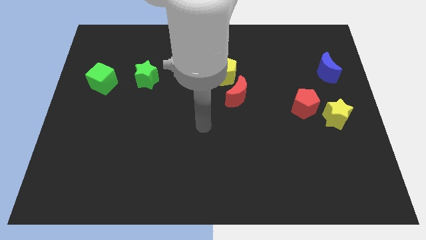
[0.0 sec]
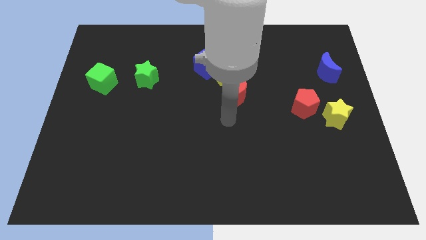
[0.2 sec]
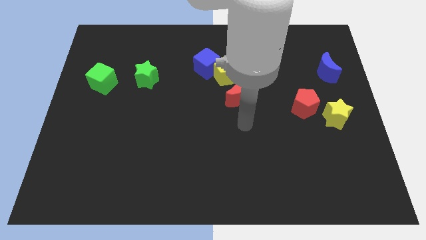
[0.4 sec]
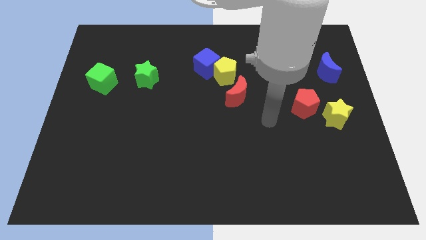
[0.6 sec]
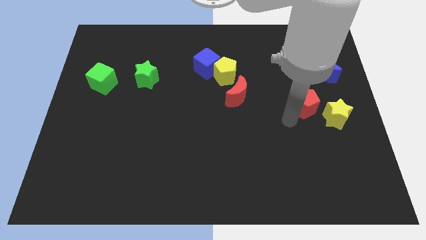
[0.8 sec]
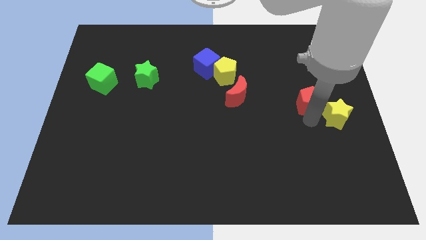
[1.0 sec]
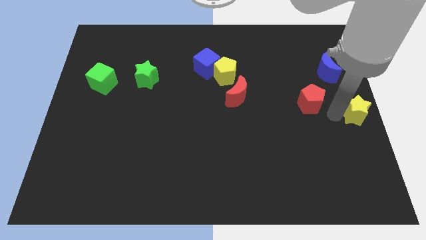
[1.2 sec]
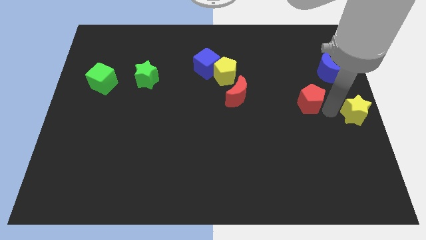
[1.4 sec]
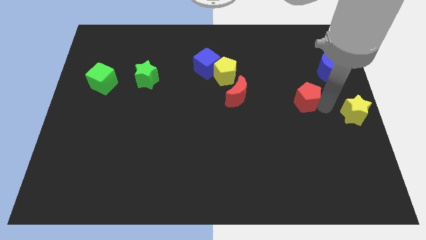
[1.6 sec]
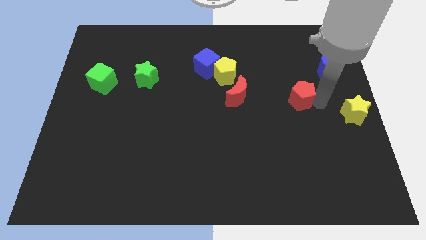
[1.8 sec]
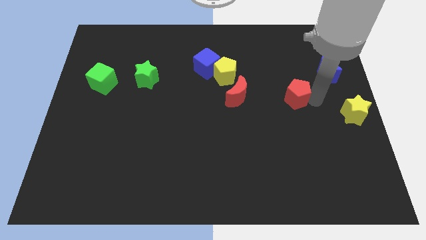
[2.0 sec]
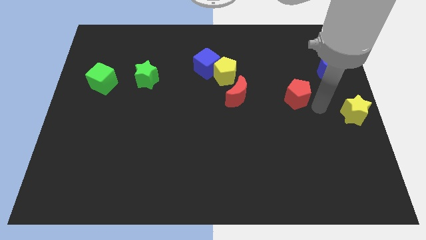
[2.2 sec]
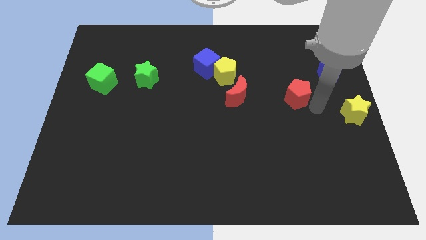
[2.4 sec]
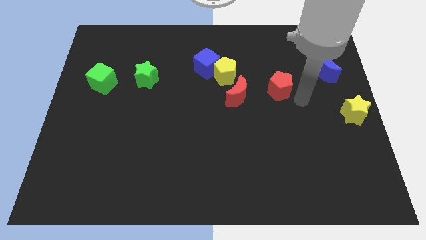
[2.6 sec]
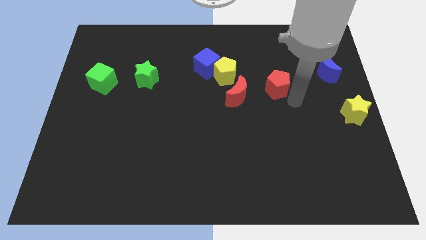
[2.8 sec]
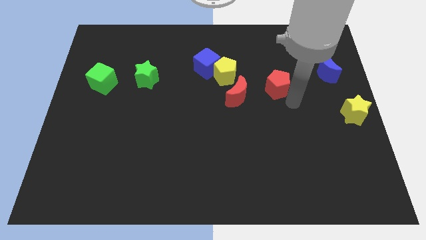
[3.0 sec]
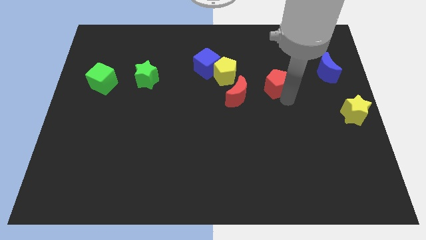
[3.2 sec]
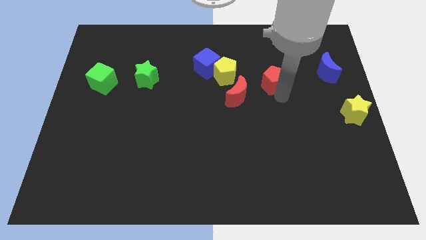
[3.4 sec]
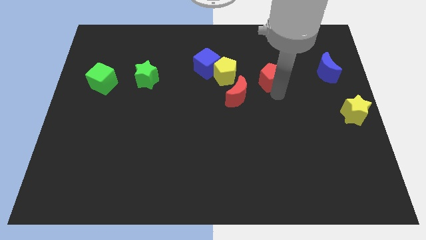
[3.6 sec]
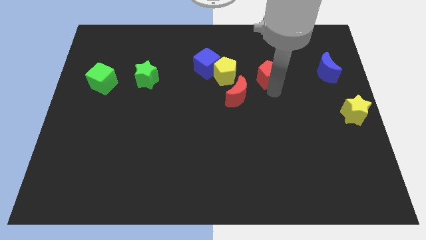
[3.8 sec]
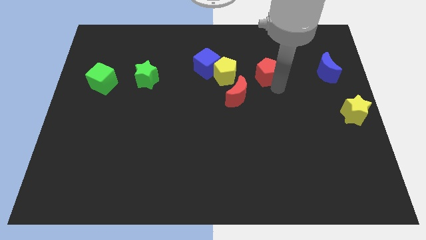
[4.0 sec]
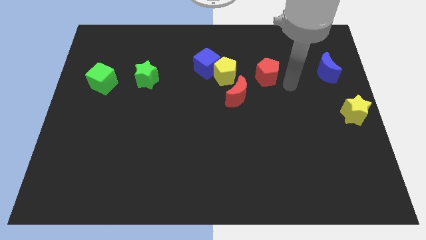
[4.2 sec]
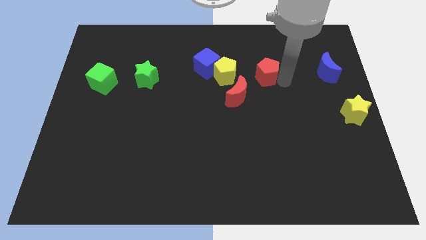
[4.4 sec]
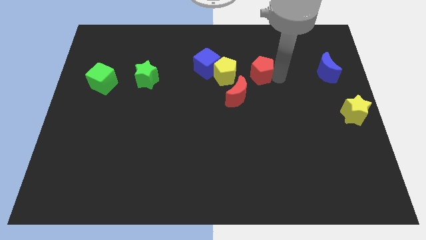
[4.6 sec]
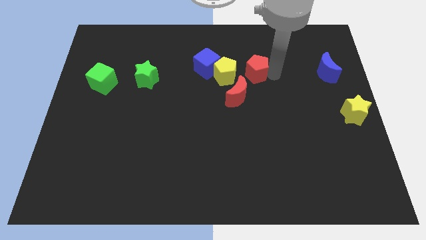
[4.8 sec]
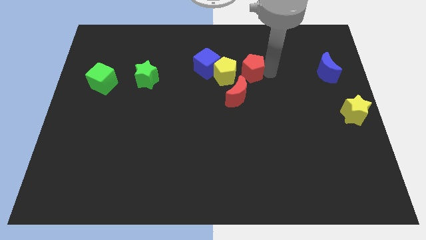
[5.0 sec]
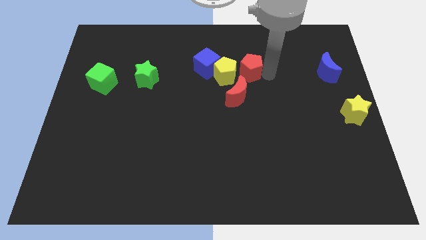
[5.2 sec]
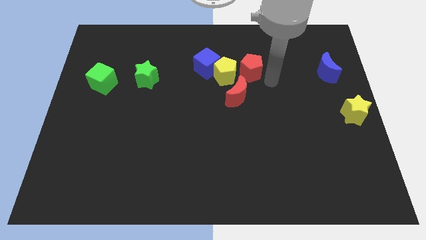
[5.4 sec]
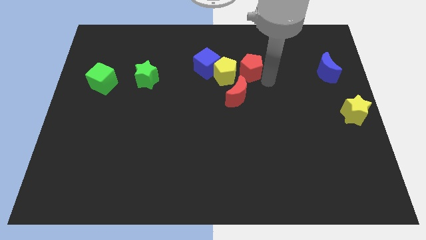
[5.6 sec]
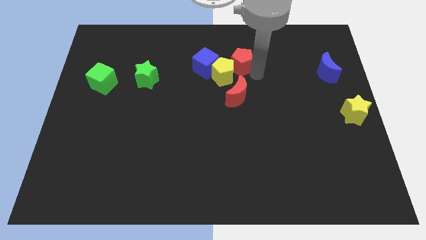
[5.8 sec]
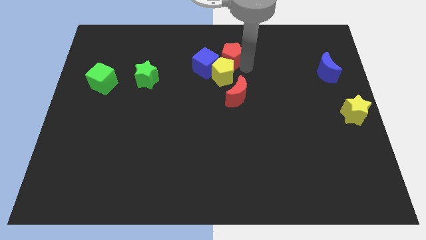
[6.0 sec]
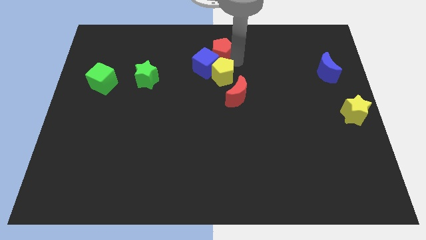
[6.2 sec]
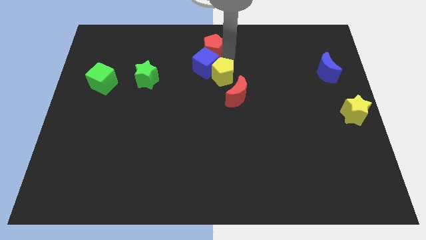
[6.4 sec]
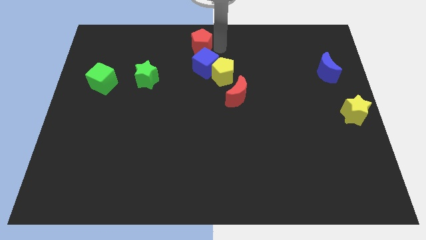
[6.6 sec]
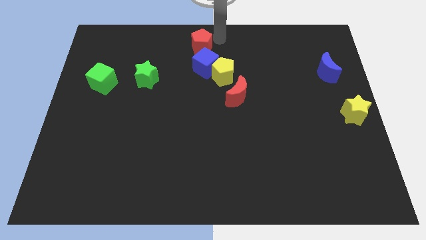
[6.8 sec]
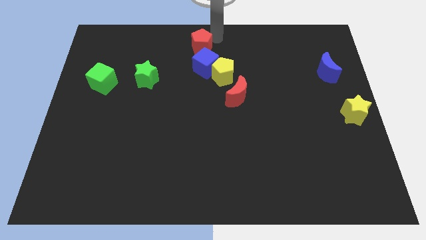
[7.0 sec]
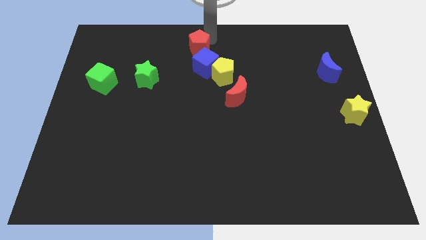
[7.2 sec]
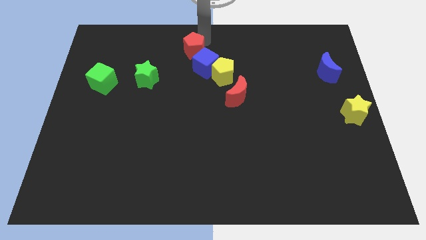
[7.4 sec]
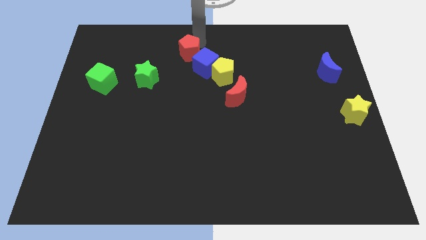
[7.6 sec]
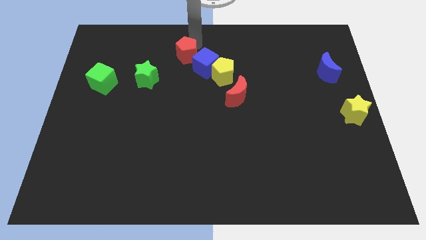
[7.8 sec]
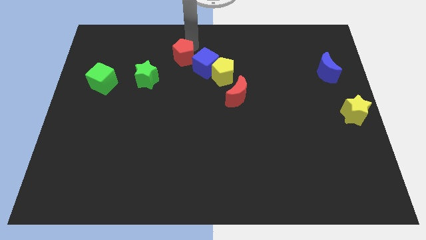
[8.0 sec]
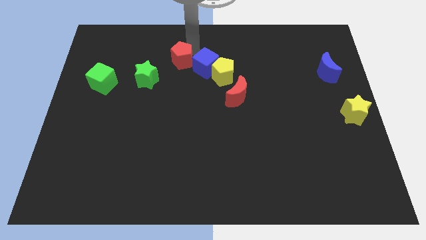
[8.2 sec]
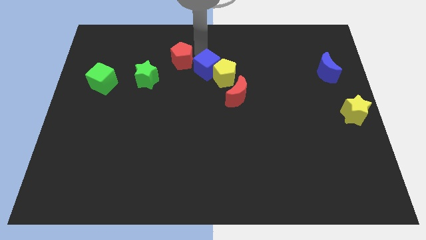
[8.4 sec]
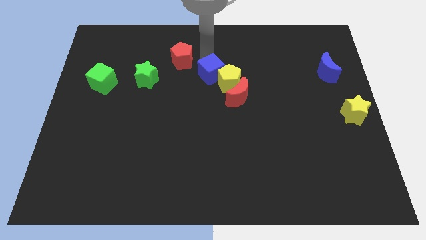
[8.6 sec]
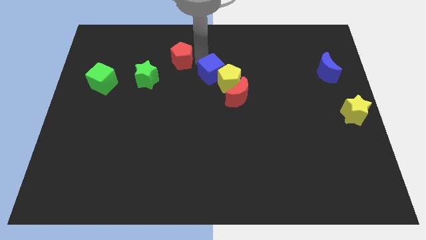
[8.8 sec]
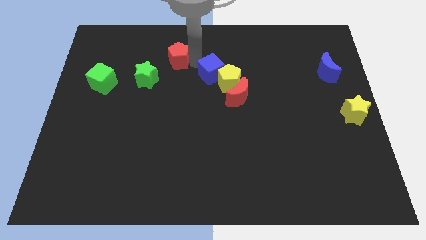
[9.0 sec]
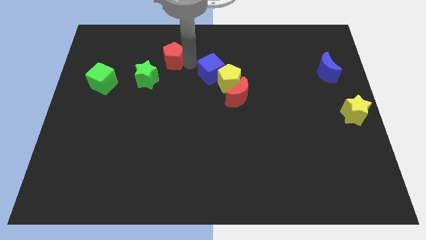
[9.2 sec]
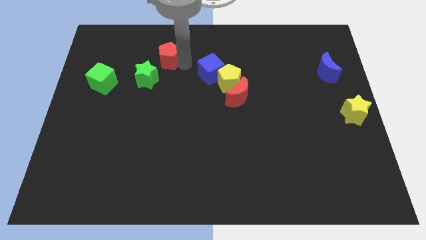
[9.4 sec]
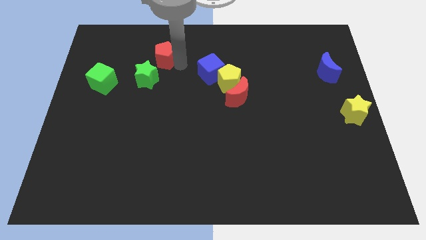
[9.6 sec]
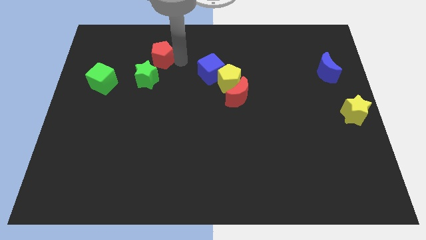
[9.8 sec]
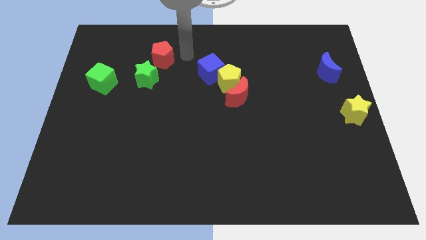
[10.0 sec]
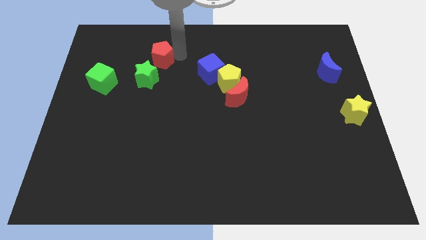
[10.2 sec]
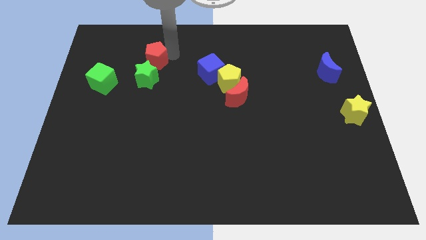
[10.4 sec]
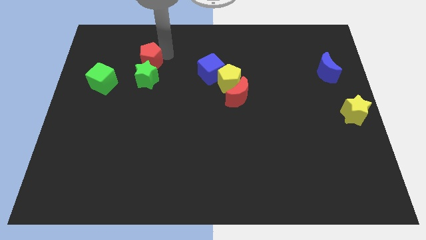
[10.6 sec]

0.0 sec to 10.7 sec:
move the red pentagon to the top left side of the green star

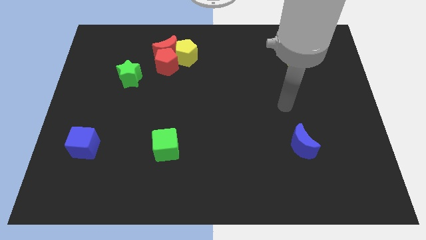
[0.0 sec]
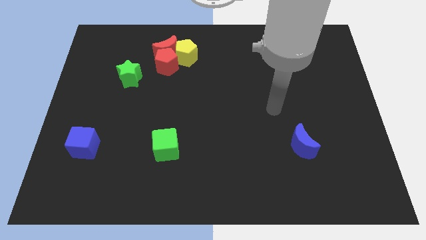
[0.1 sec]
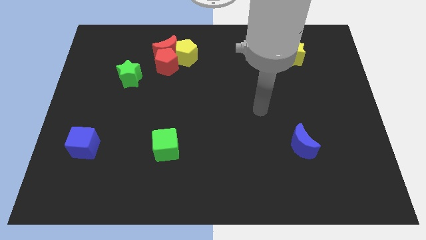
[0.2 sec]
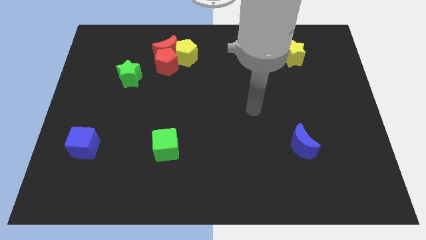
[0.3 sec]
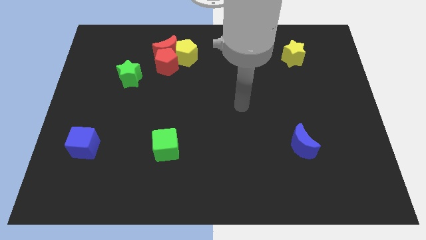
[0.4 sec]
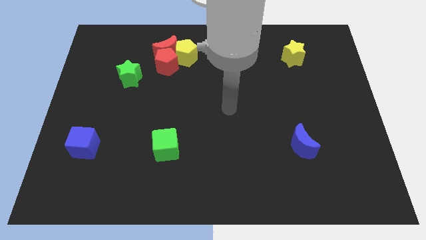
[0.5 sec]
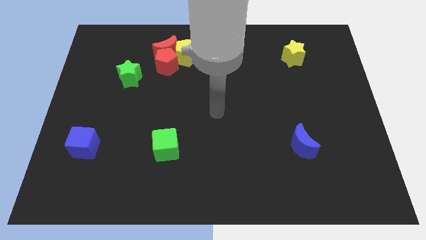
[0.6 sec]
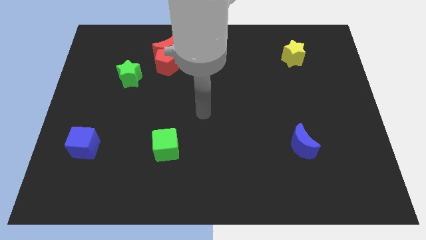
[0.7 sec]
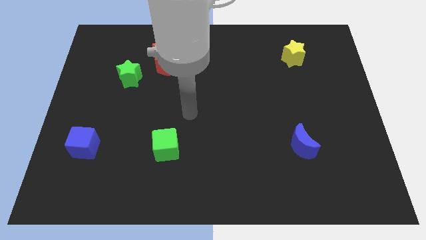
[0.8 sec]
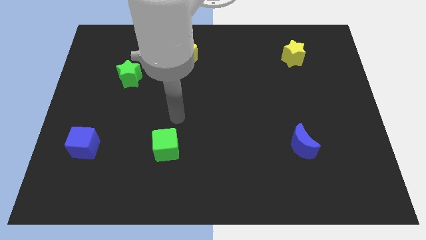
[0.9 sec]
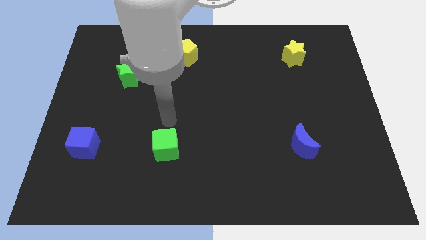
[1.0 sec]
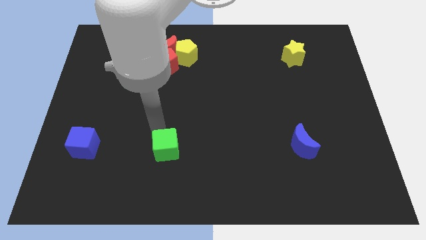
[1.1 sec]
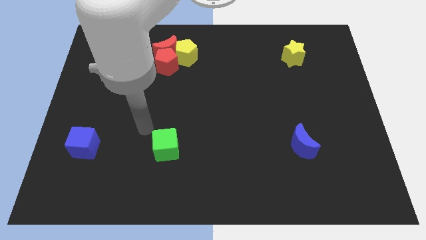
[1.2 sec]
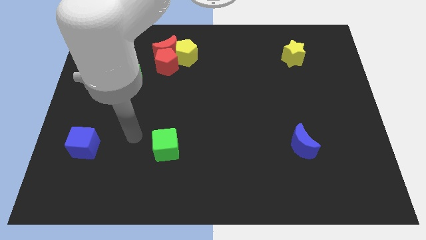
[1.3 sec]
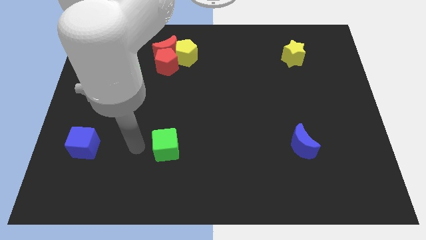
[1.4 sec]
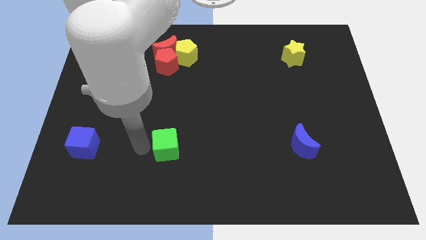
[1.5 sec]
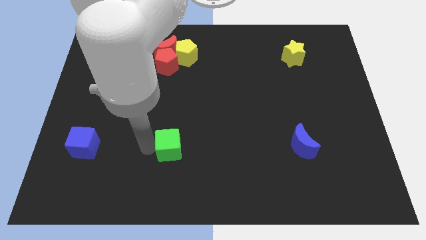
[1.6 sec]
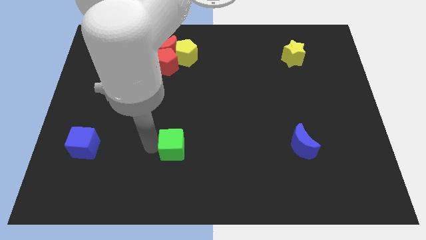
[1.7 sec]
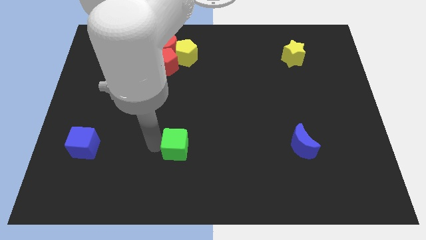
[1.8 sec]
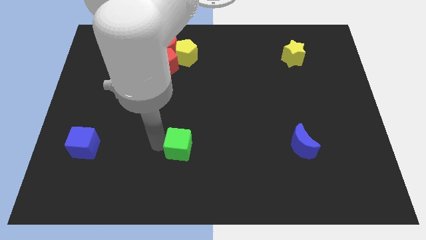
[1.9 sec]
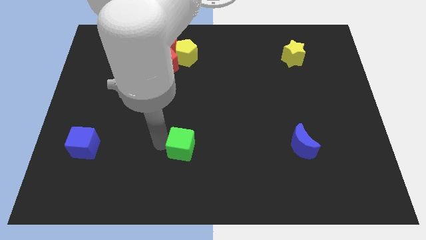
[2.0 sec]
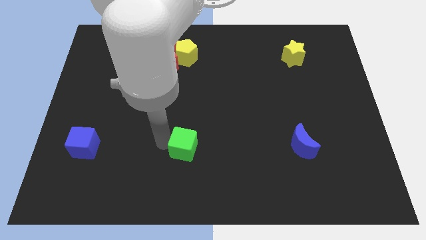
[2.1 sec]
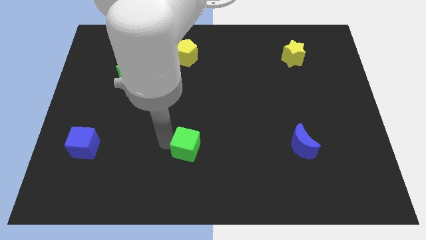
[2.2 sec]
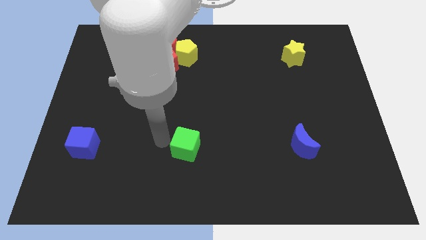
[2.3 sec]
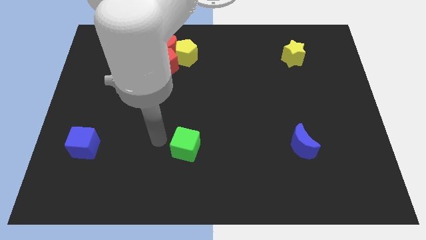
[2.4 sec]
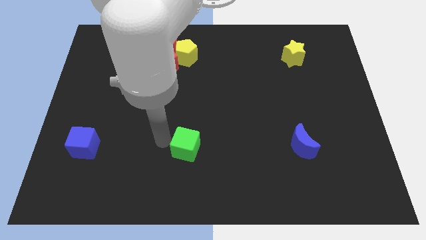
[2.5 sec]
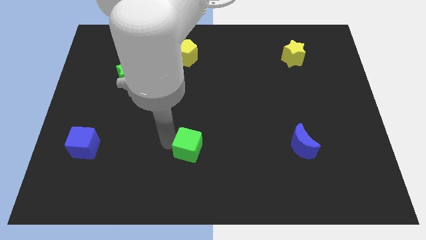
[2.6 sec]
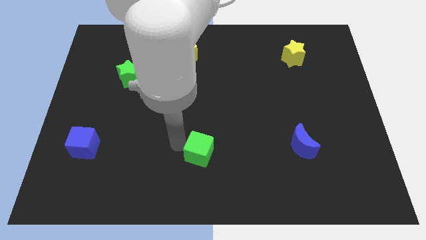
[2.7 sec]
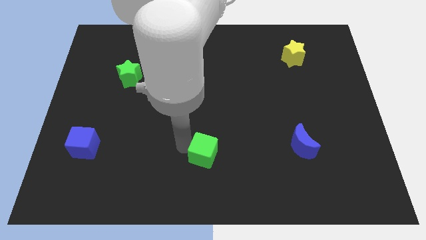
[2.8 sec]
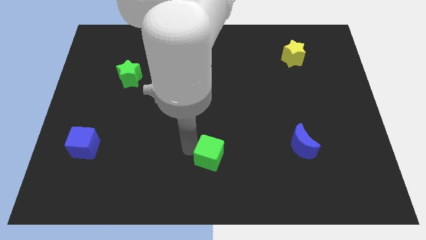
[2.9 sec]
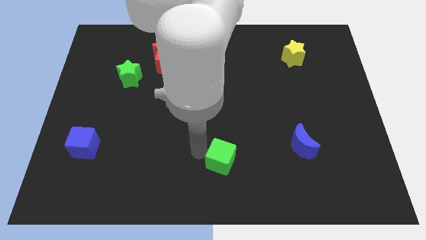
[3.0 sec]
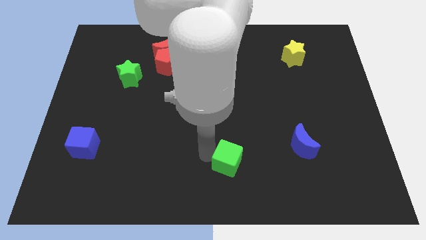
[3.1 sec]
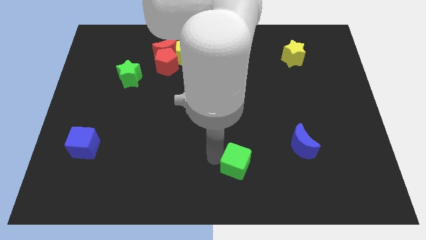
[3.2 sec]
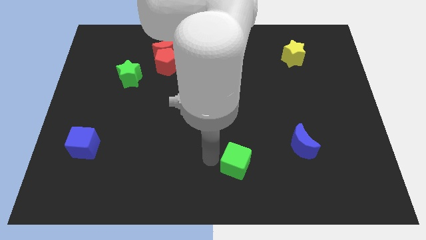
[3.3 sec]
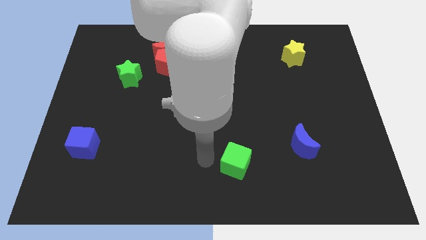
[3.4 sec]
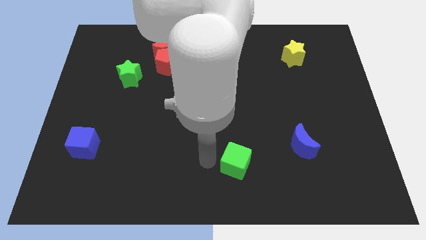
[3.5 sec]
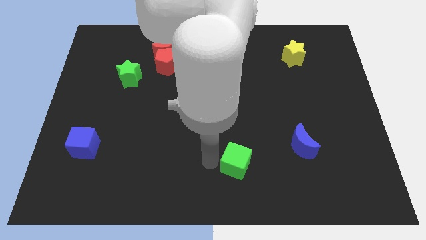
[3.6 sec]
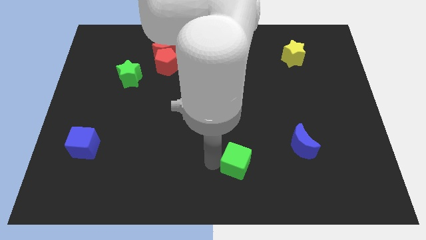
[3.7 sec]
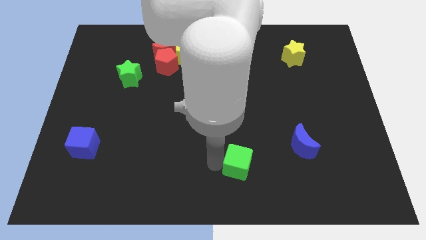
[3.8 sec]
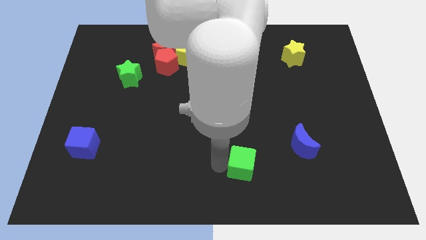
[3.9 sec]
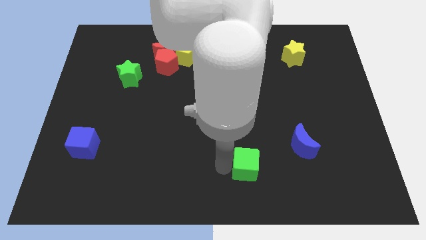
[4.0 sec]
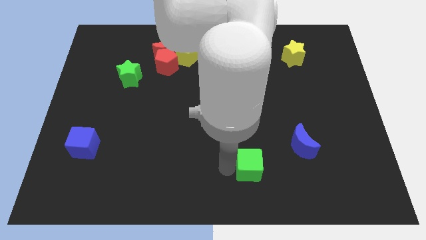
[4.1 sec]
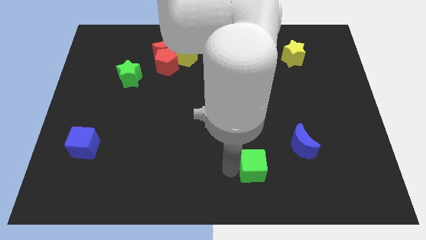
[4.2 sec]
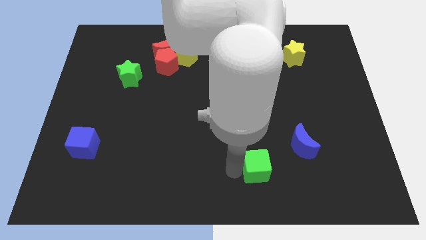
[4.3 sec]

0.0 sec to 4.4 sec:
put the green cube to the bottom left side of the blue moon
